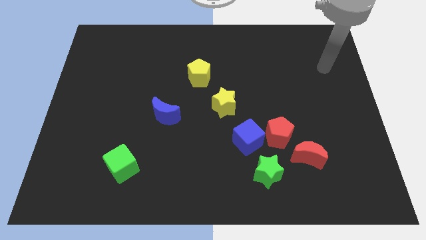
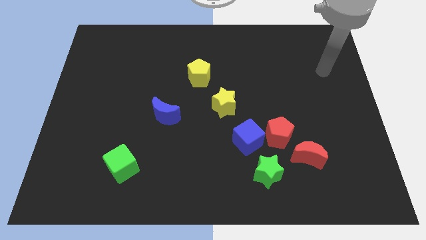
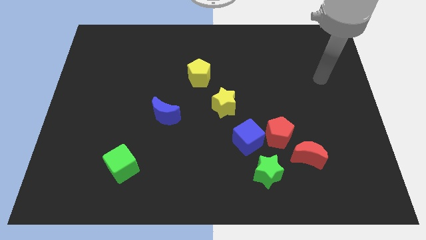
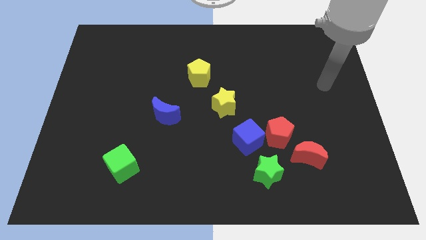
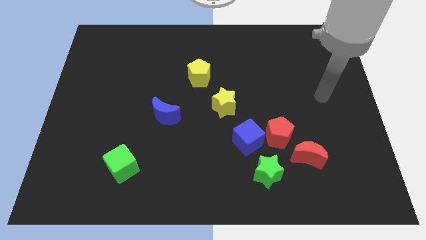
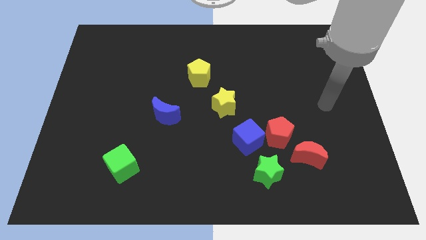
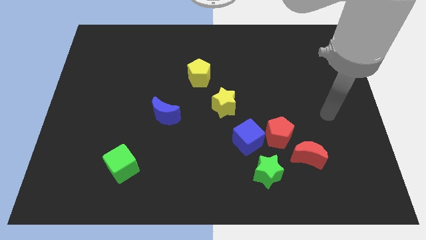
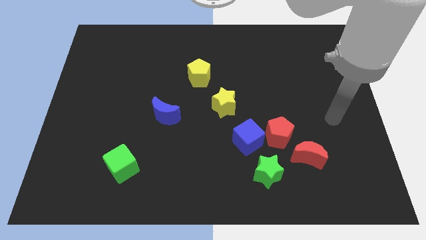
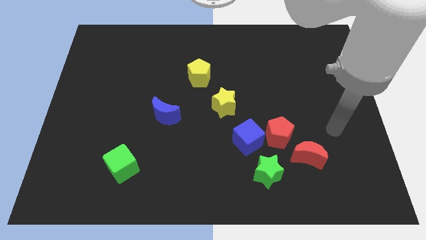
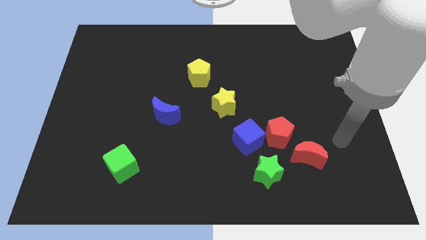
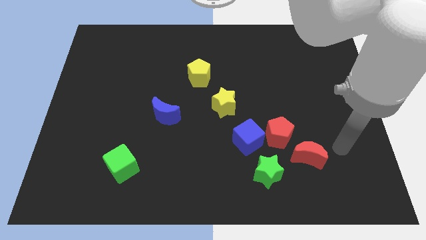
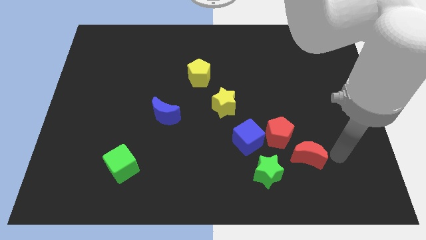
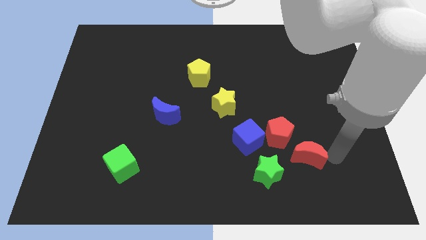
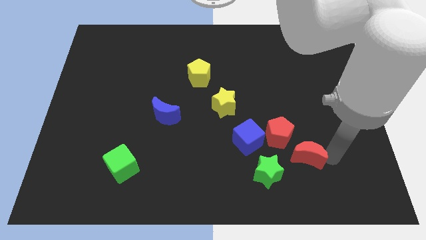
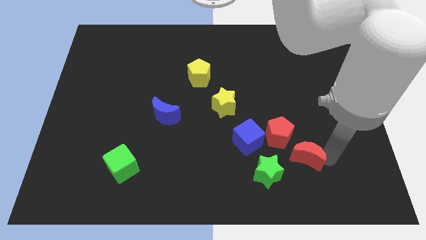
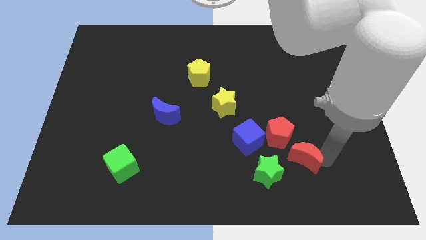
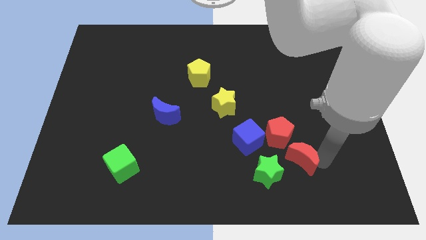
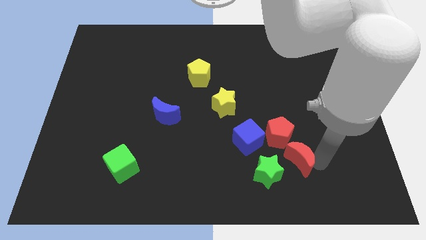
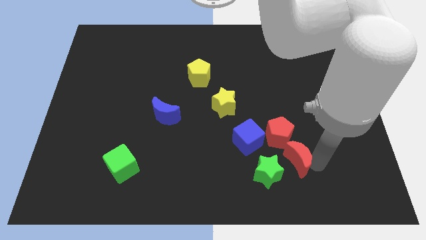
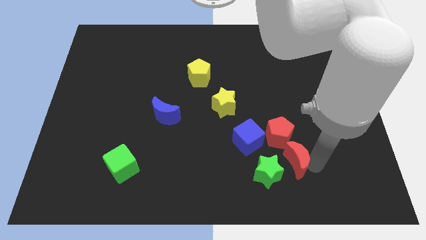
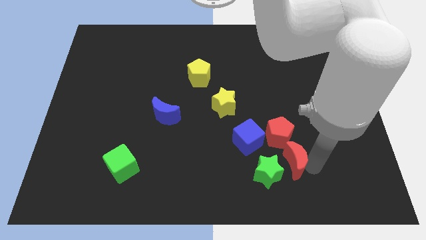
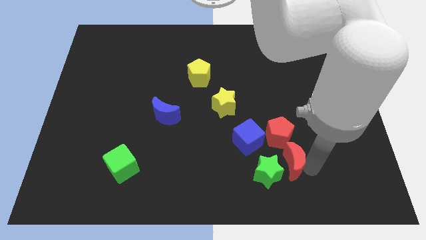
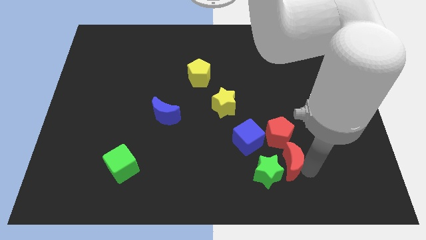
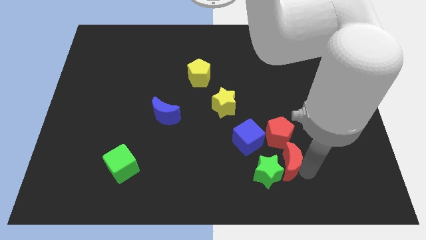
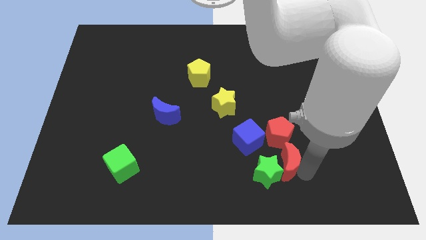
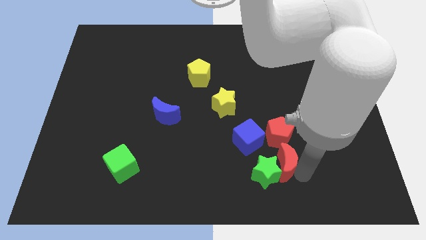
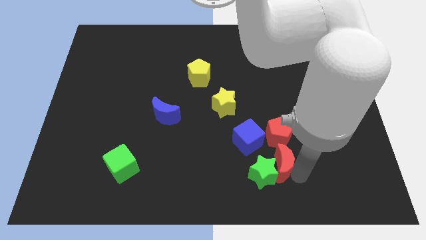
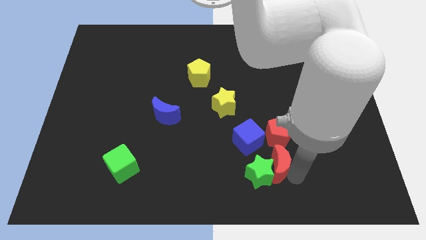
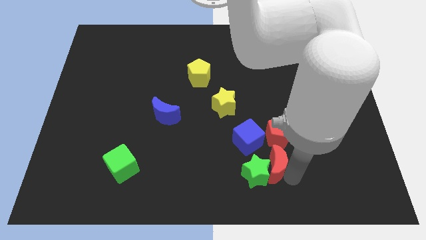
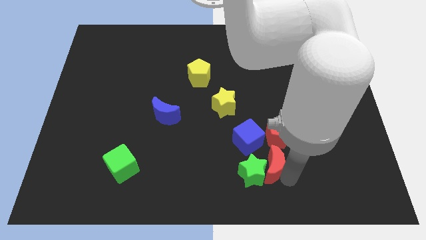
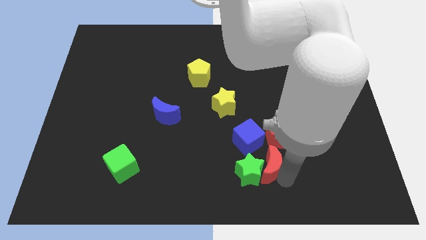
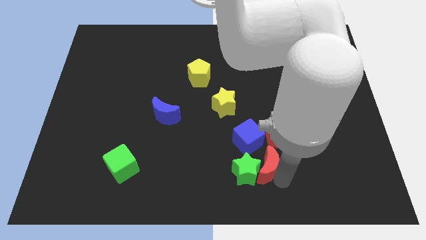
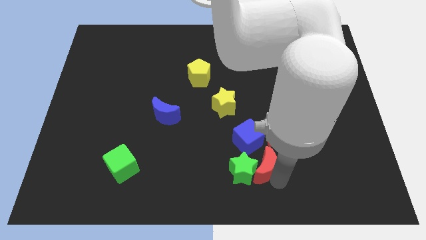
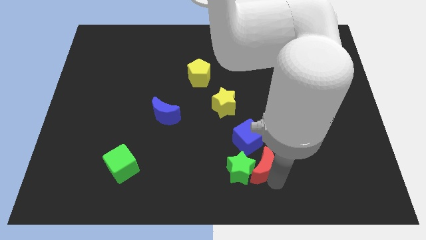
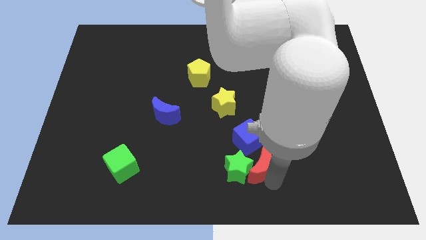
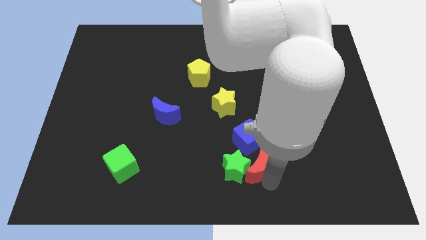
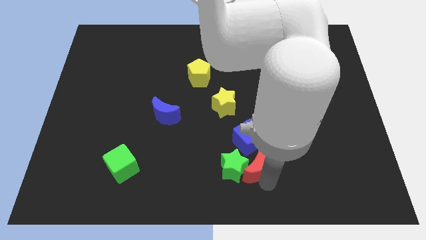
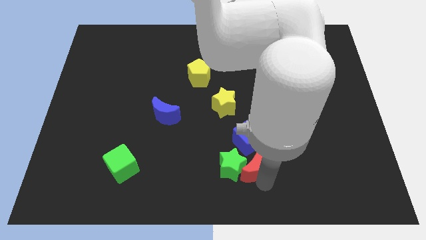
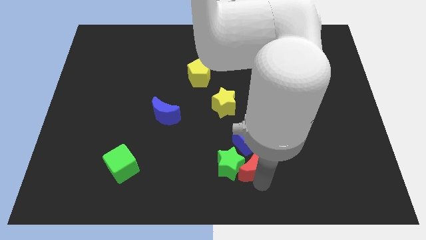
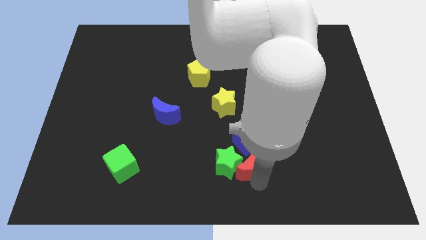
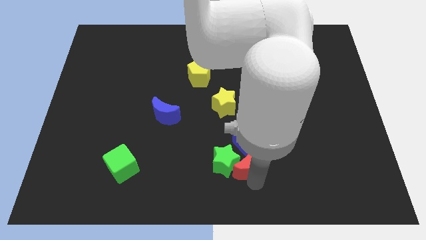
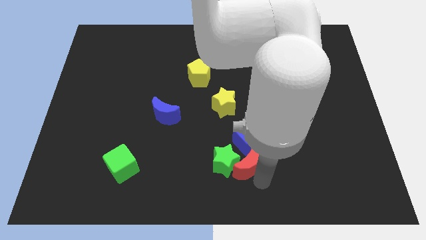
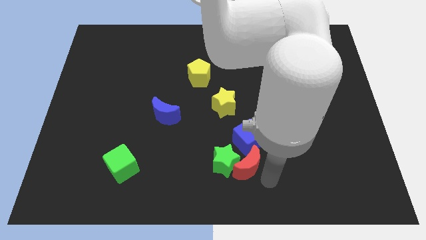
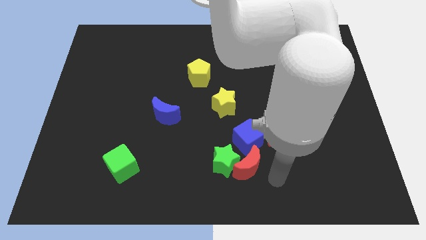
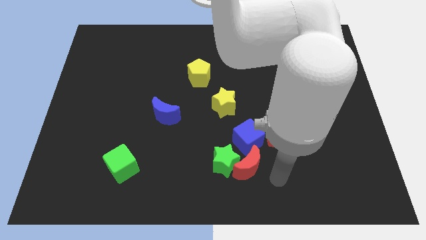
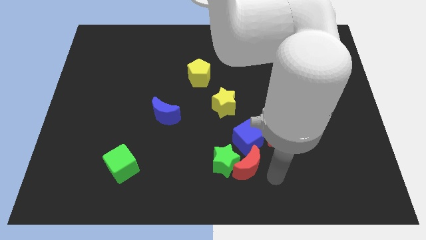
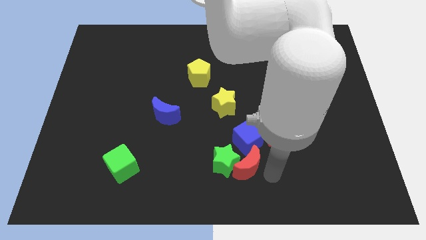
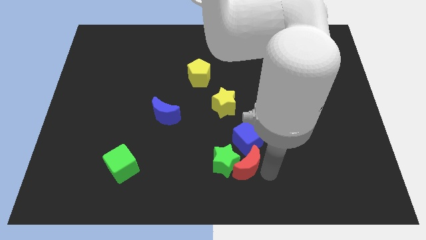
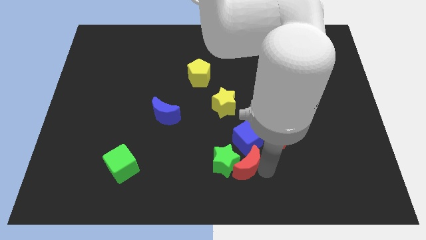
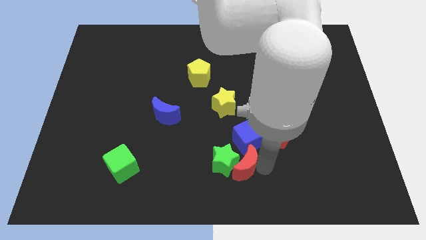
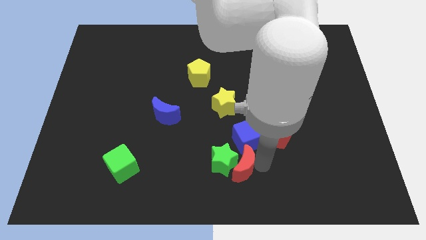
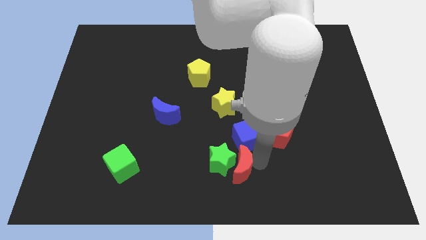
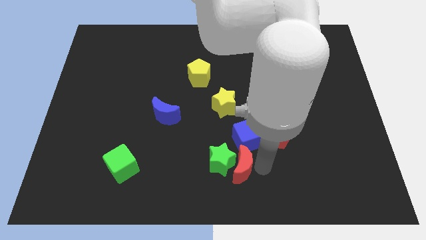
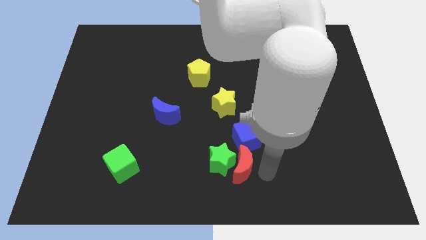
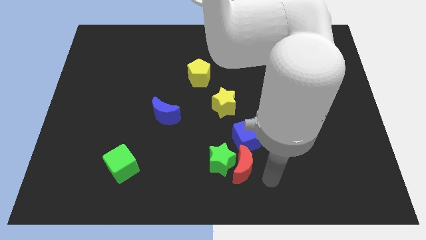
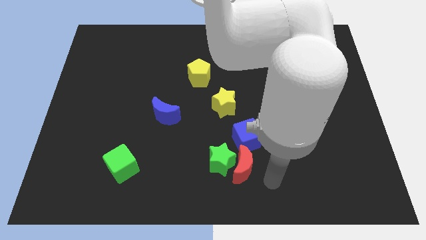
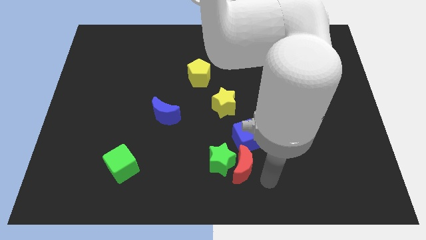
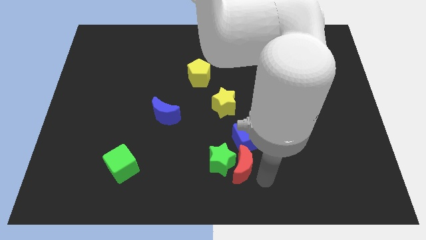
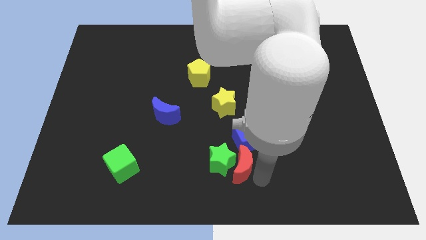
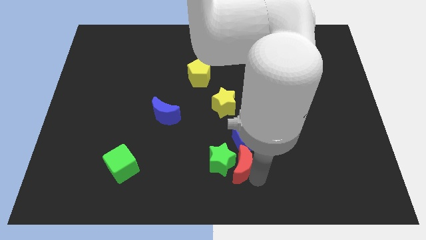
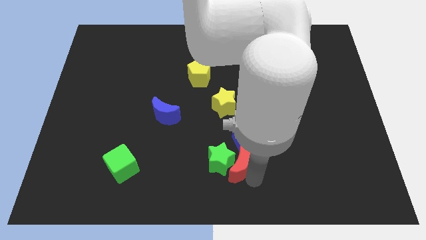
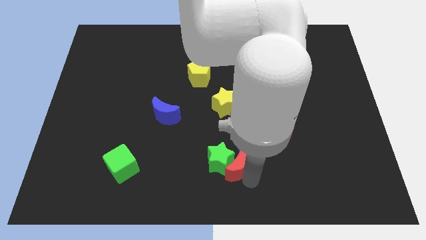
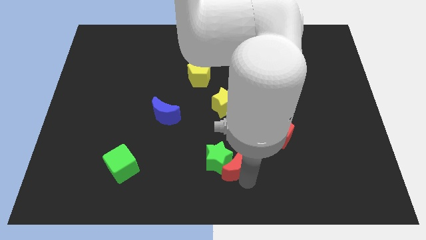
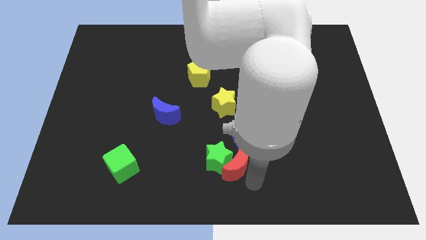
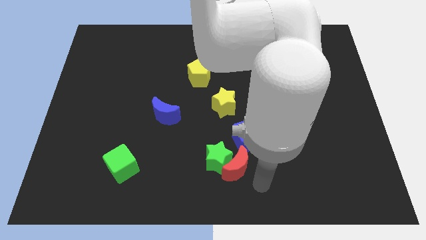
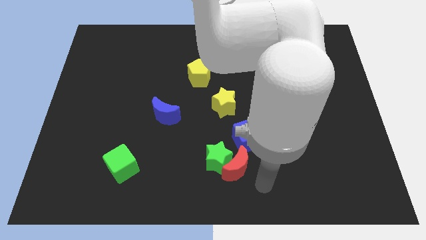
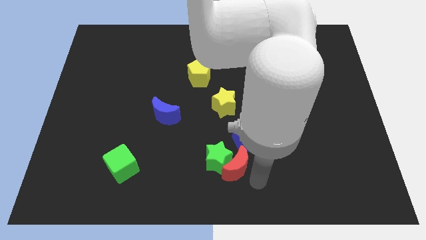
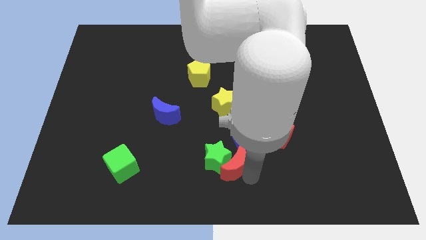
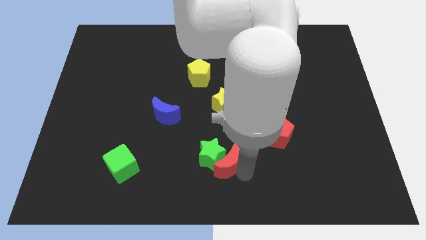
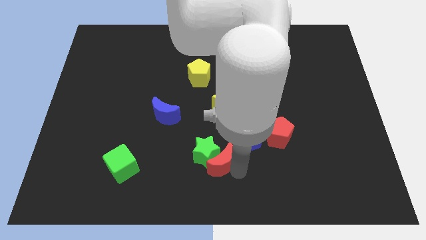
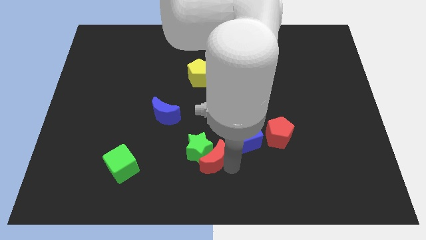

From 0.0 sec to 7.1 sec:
move the red moon to the left

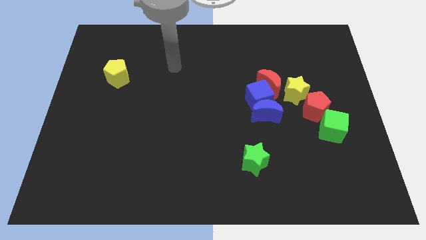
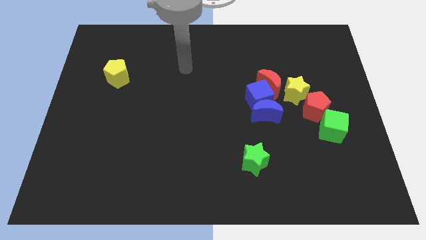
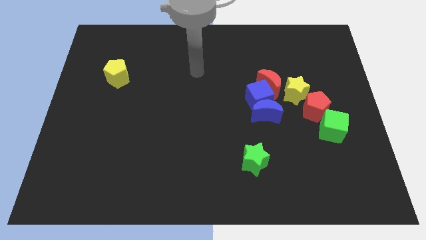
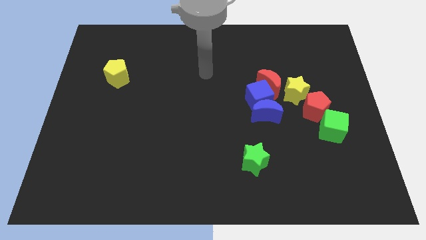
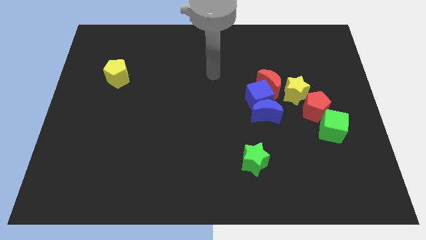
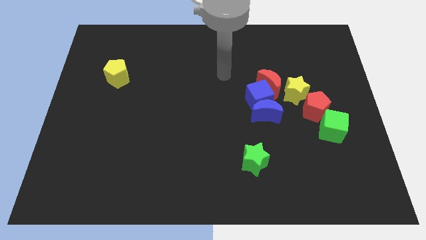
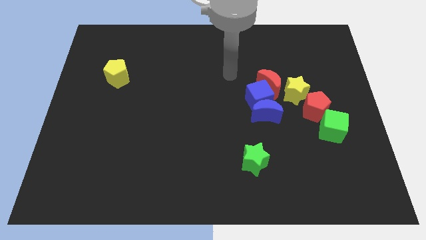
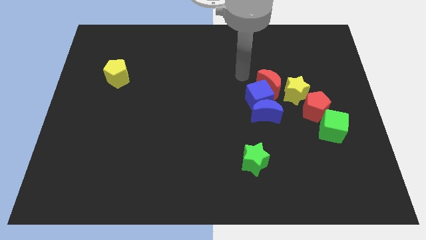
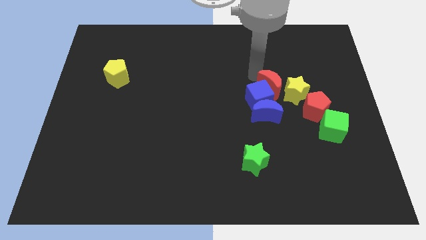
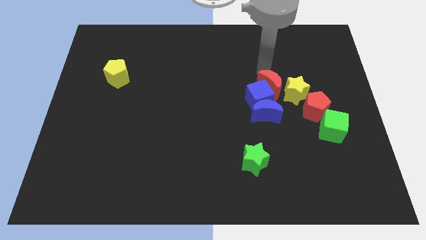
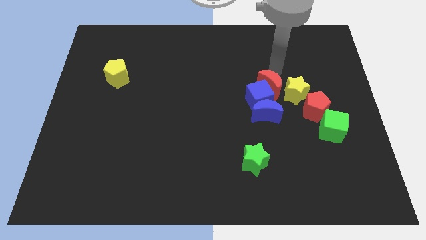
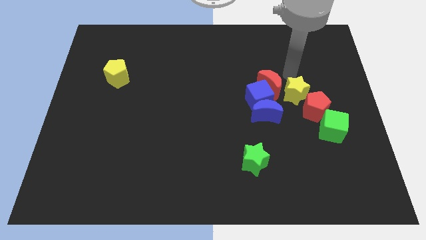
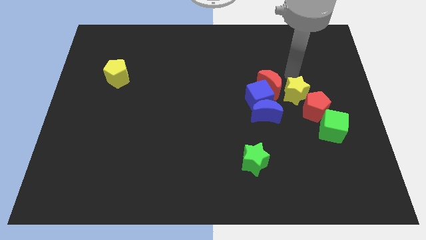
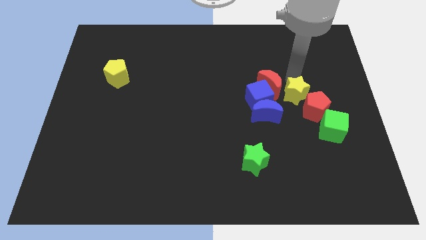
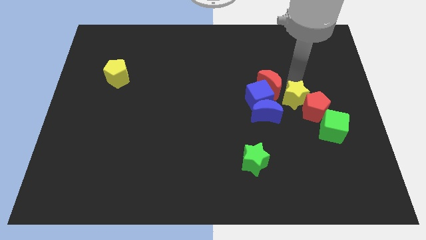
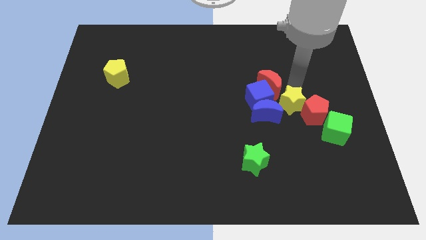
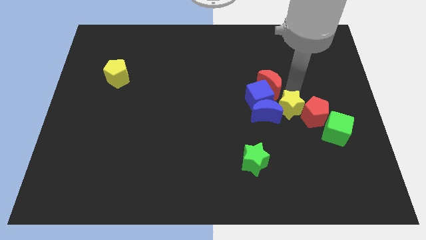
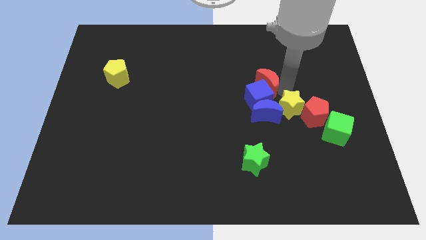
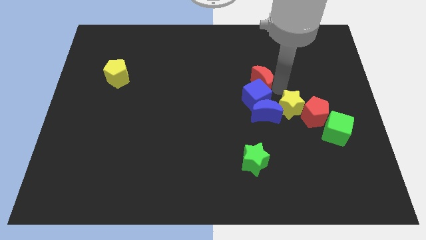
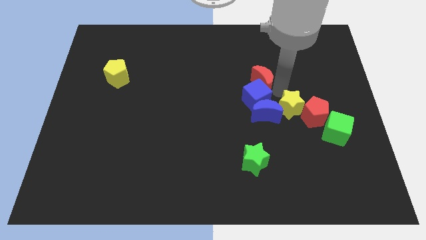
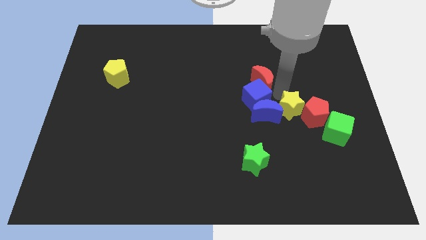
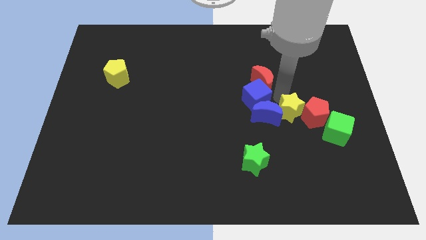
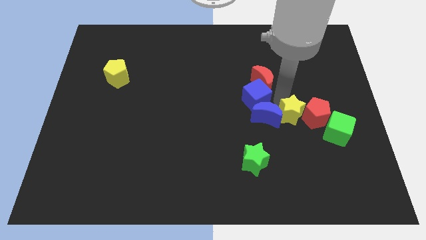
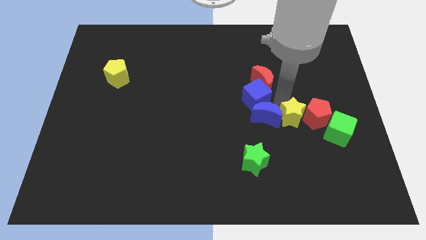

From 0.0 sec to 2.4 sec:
slightly move the yellow star down
